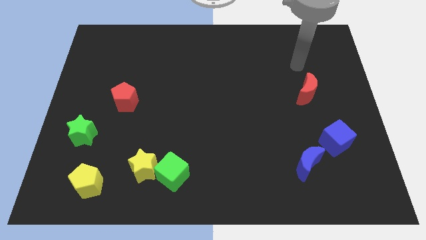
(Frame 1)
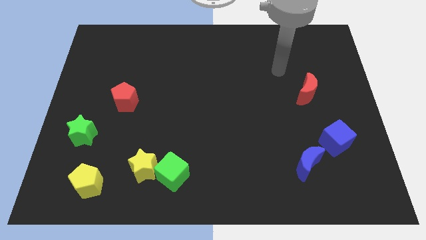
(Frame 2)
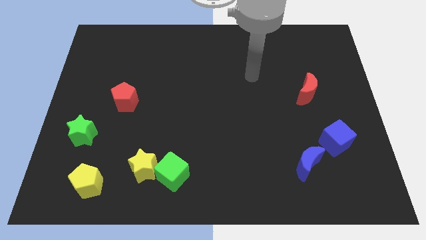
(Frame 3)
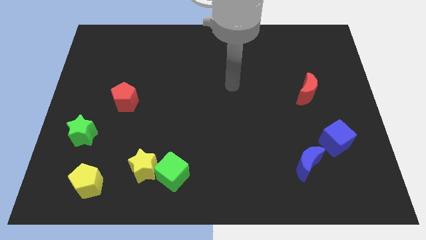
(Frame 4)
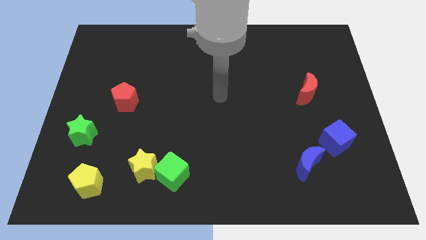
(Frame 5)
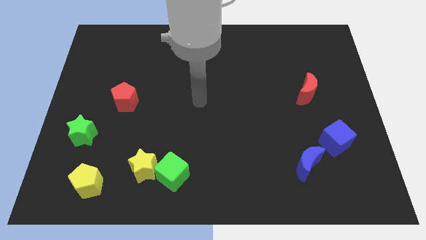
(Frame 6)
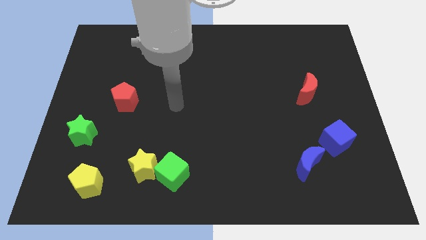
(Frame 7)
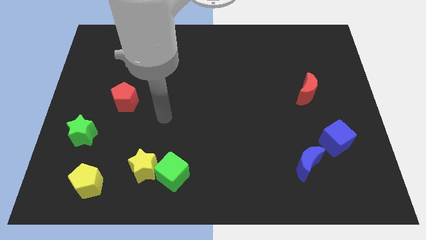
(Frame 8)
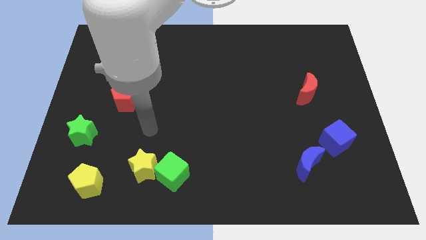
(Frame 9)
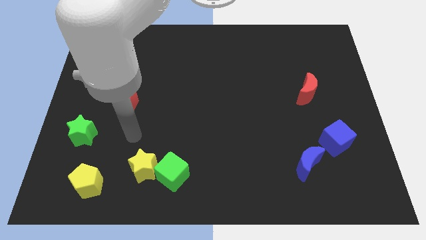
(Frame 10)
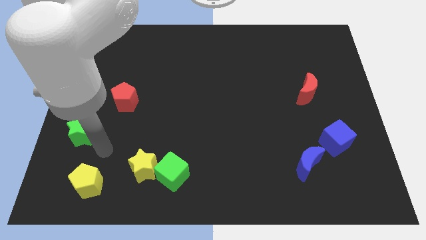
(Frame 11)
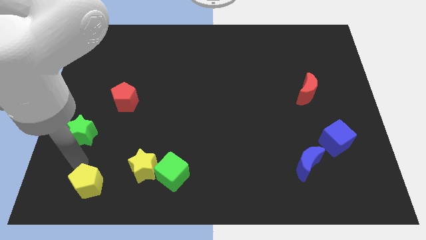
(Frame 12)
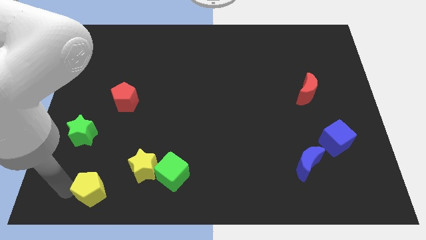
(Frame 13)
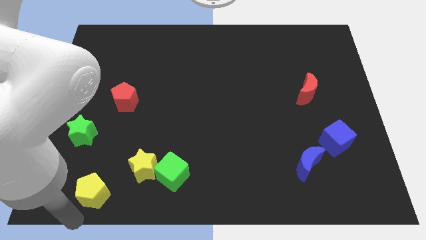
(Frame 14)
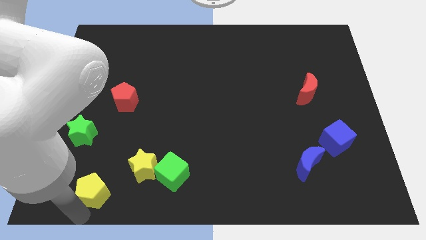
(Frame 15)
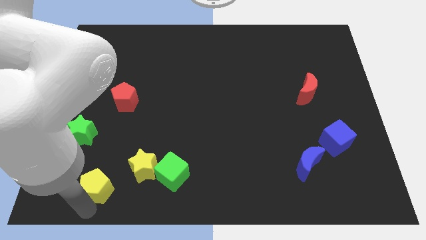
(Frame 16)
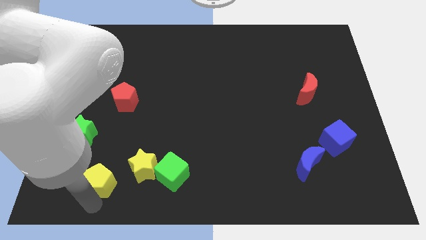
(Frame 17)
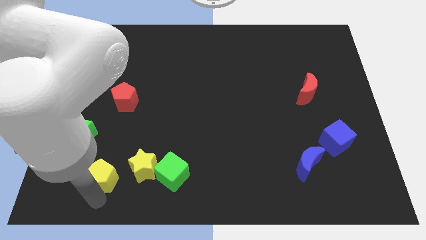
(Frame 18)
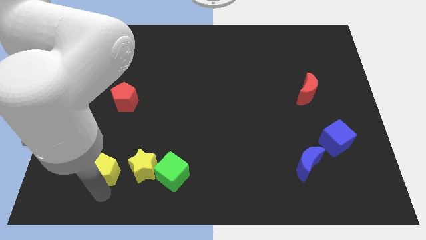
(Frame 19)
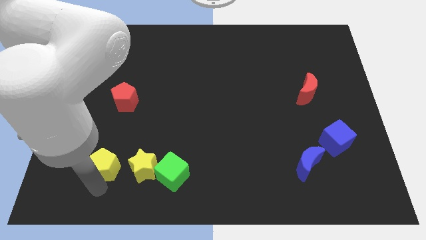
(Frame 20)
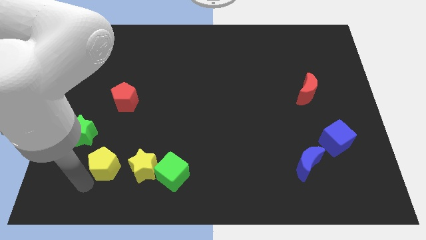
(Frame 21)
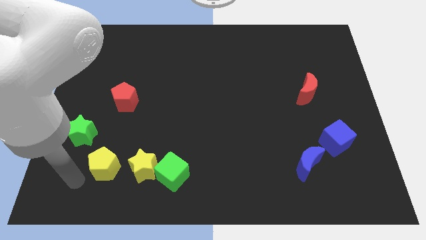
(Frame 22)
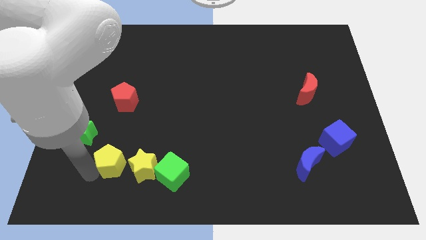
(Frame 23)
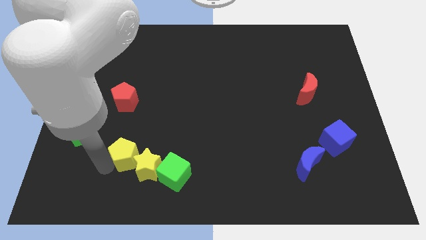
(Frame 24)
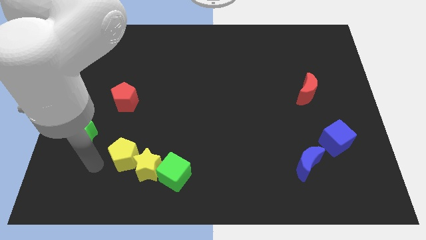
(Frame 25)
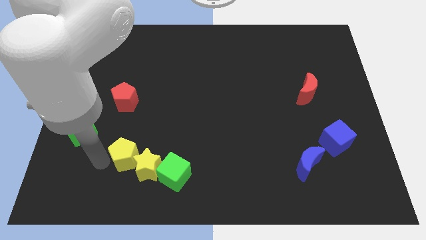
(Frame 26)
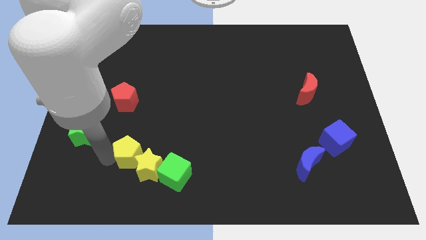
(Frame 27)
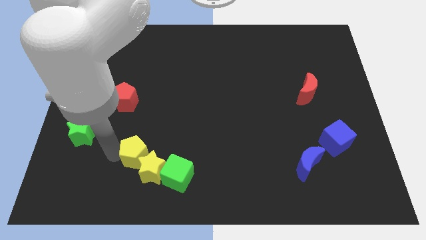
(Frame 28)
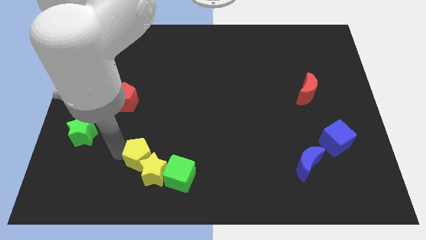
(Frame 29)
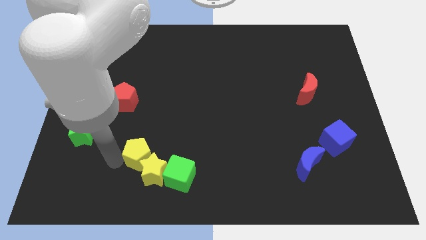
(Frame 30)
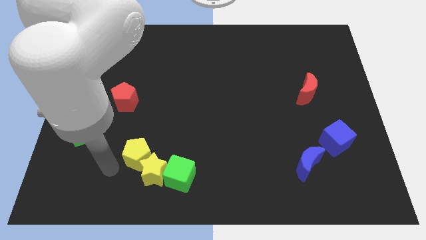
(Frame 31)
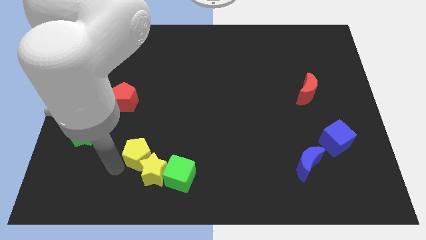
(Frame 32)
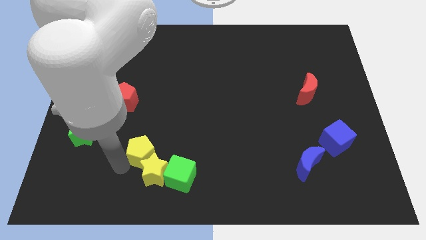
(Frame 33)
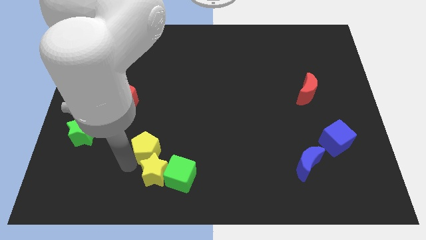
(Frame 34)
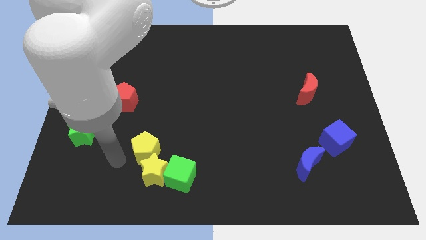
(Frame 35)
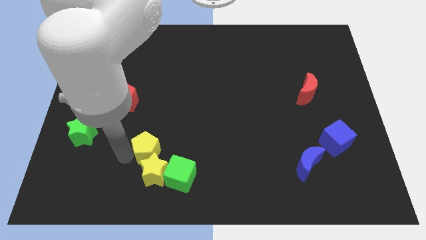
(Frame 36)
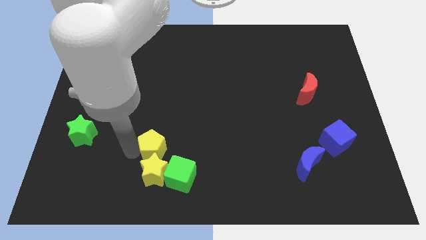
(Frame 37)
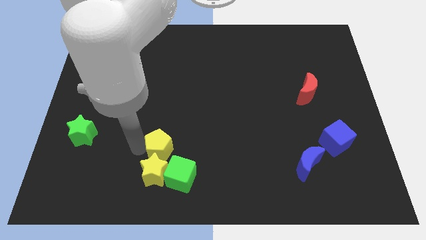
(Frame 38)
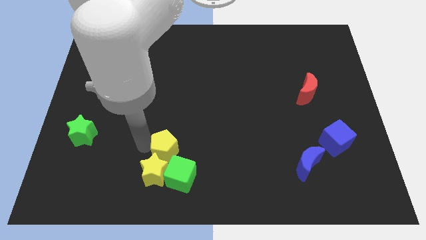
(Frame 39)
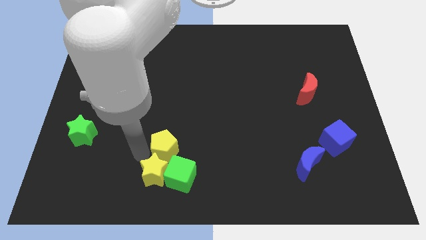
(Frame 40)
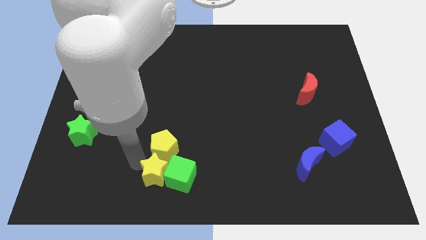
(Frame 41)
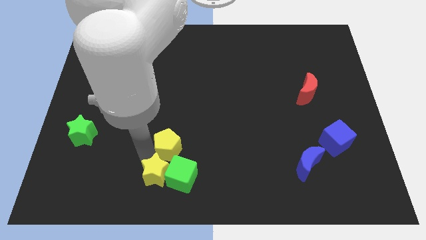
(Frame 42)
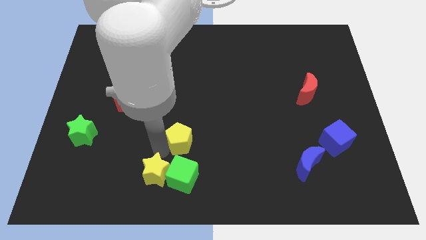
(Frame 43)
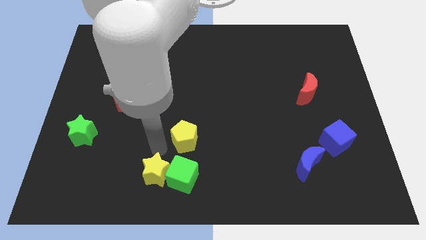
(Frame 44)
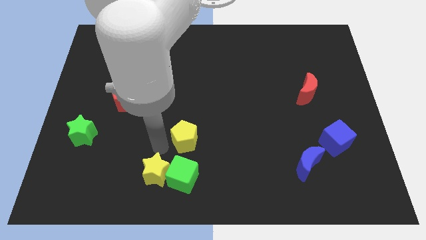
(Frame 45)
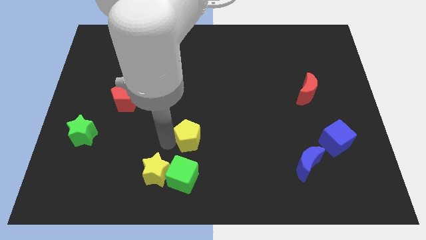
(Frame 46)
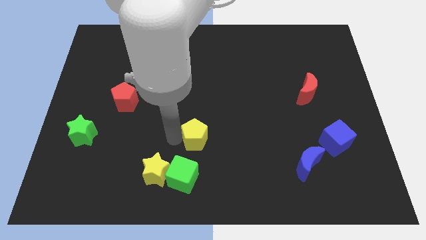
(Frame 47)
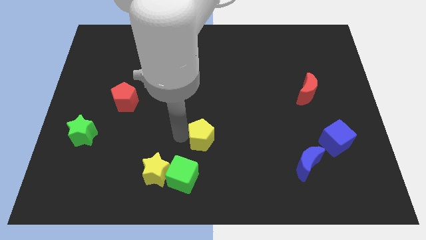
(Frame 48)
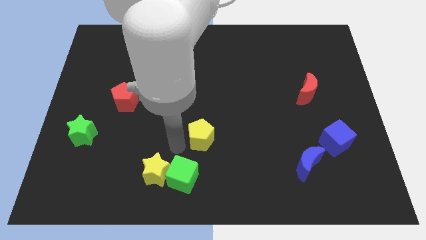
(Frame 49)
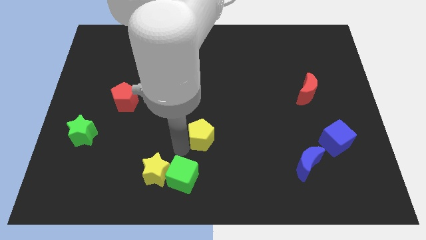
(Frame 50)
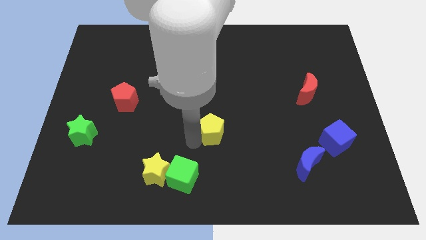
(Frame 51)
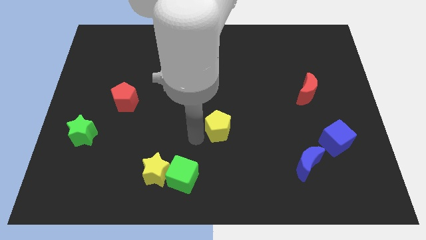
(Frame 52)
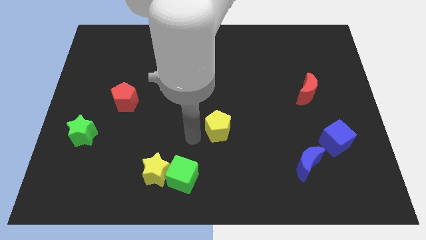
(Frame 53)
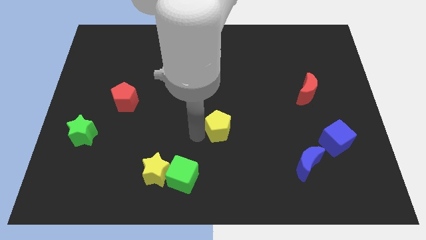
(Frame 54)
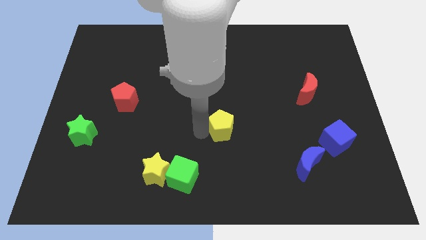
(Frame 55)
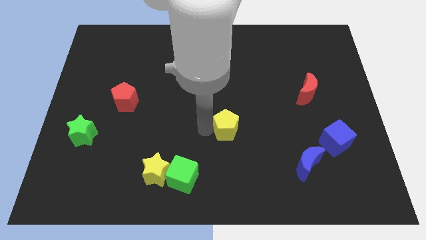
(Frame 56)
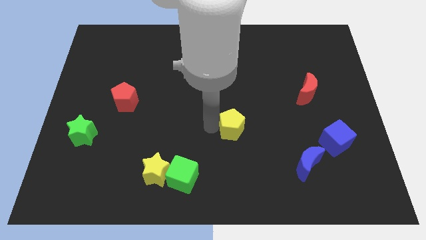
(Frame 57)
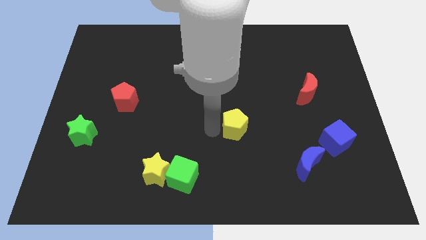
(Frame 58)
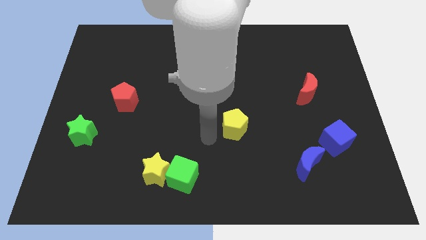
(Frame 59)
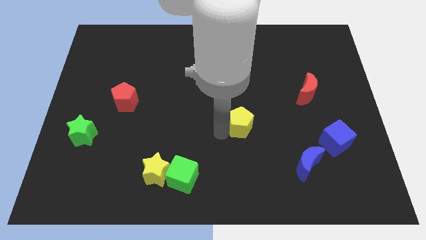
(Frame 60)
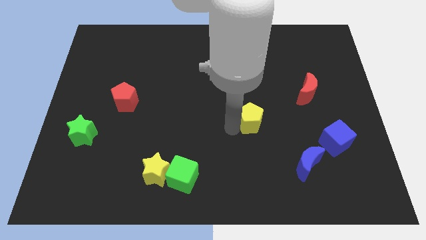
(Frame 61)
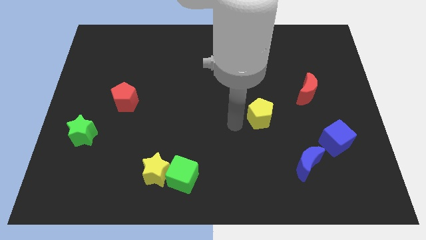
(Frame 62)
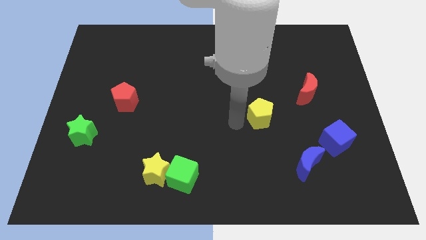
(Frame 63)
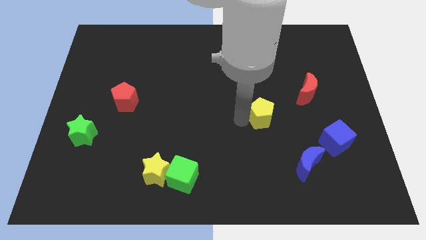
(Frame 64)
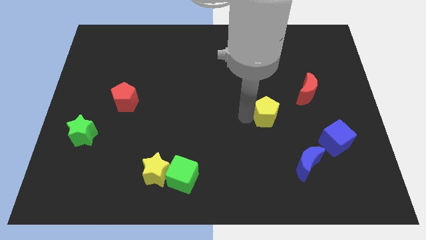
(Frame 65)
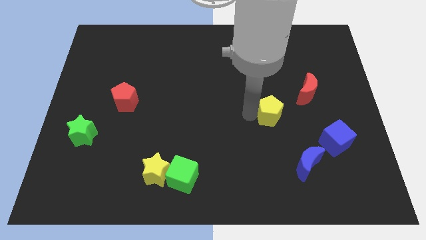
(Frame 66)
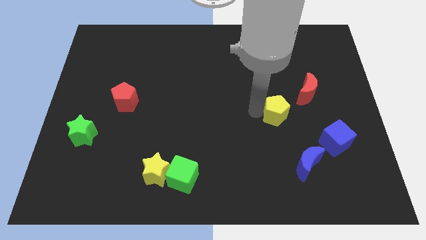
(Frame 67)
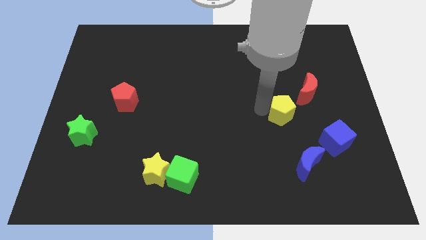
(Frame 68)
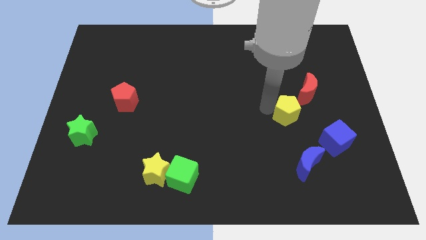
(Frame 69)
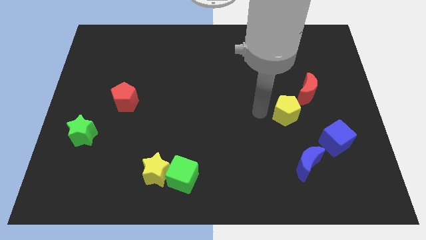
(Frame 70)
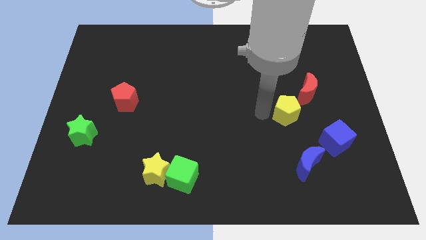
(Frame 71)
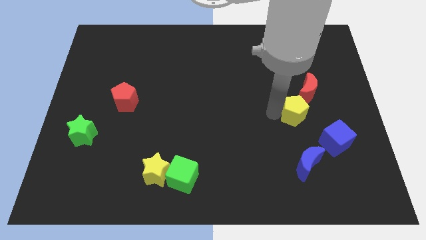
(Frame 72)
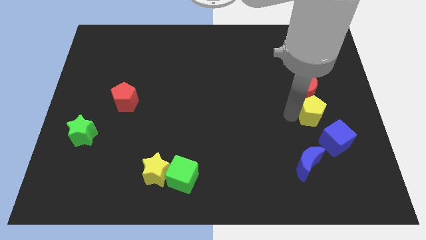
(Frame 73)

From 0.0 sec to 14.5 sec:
move the yellow pentagon above the blue cube
